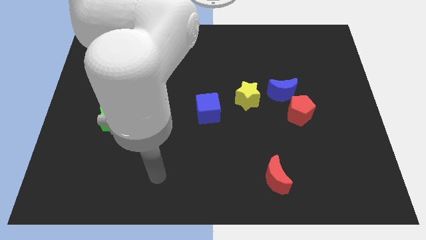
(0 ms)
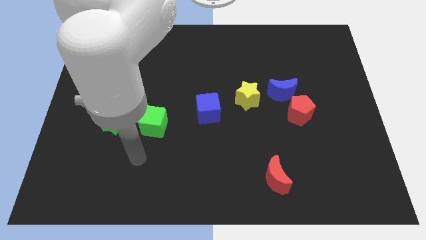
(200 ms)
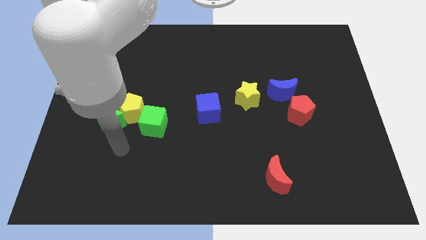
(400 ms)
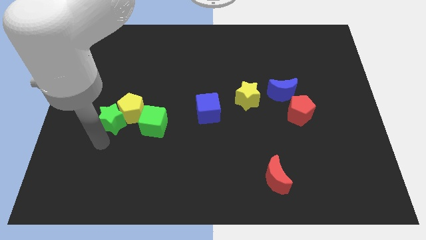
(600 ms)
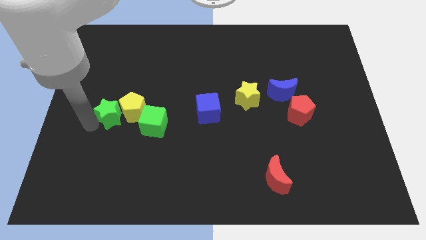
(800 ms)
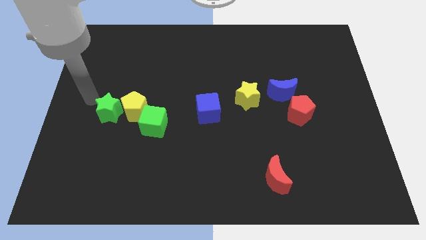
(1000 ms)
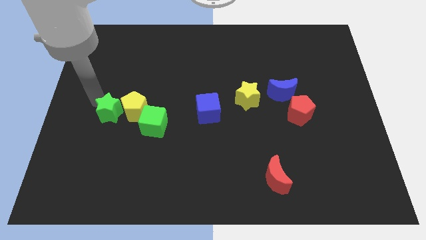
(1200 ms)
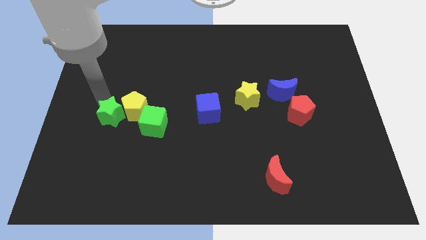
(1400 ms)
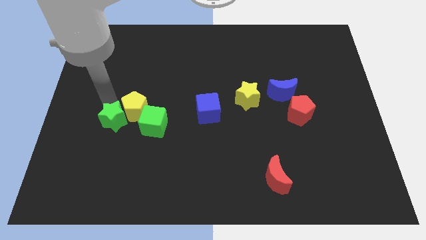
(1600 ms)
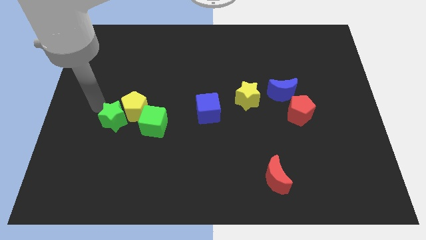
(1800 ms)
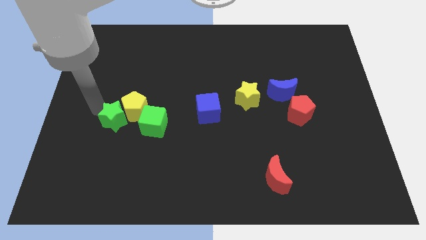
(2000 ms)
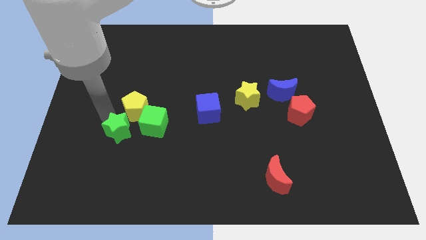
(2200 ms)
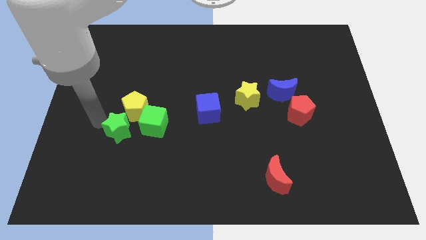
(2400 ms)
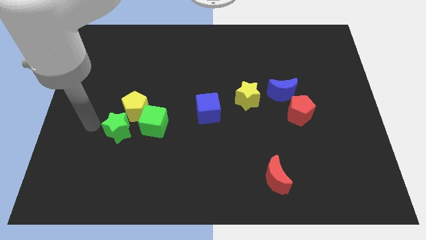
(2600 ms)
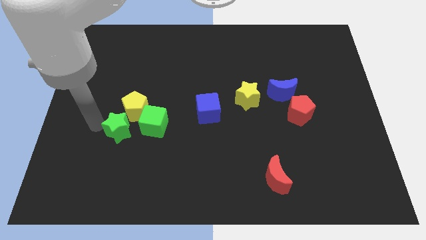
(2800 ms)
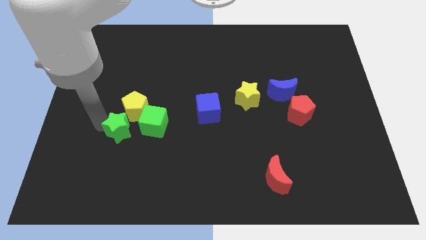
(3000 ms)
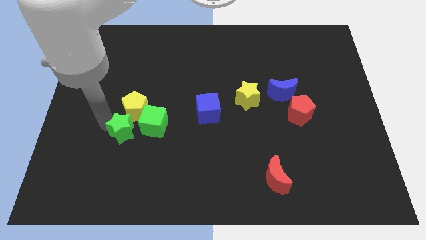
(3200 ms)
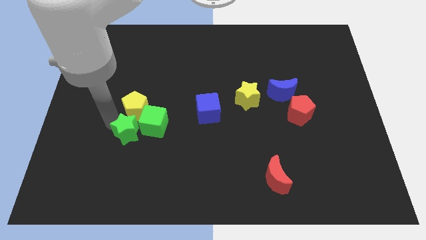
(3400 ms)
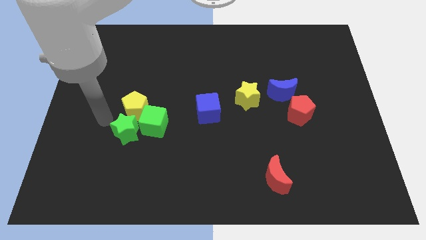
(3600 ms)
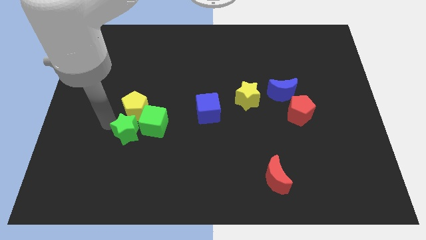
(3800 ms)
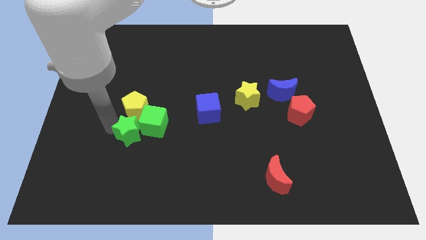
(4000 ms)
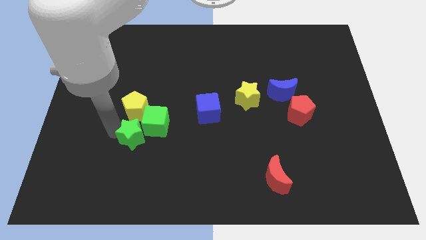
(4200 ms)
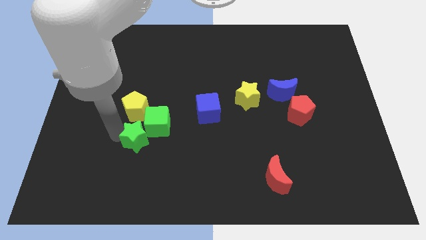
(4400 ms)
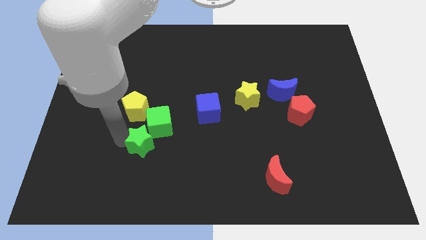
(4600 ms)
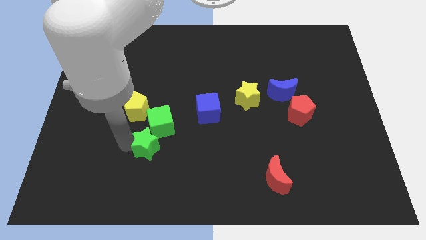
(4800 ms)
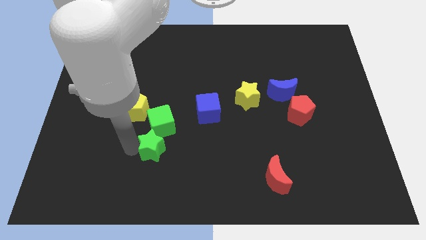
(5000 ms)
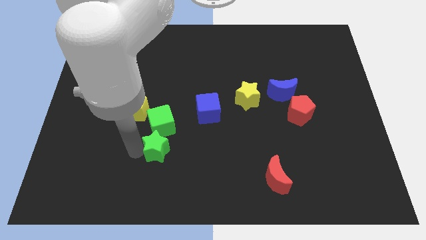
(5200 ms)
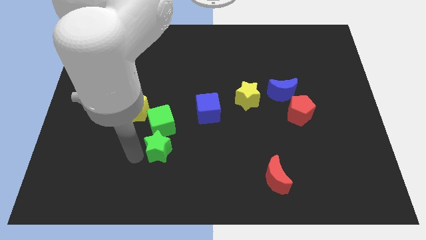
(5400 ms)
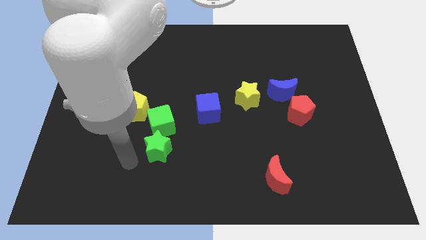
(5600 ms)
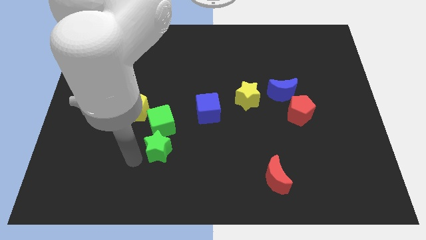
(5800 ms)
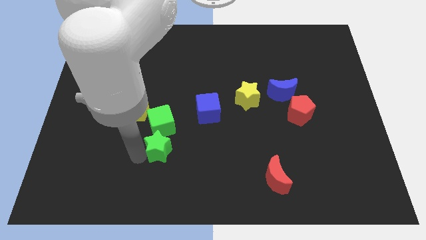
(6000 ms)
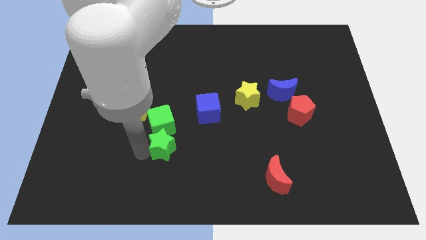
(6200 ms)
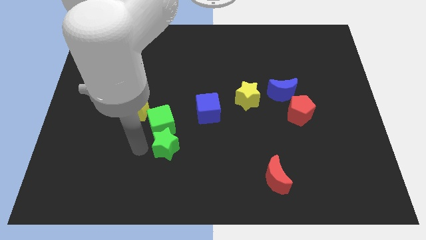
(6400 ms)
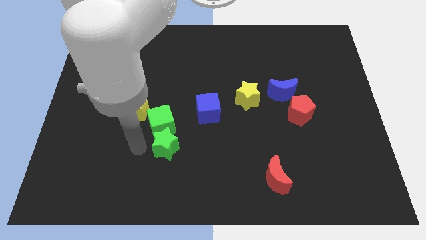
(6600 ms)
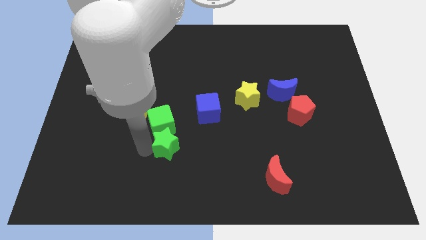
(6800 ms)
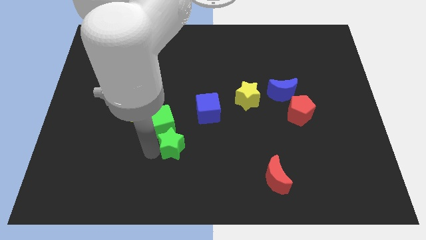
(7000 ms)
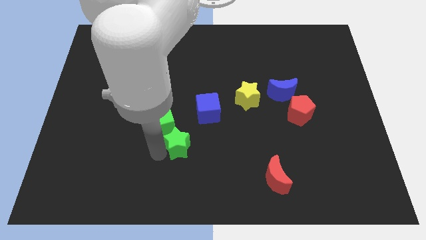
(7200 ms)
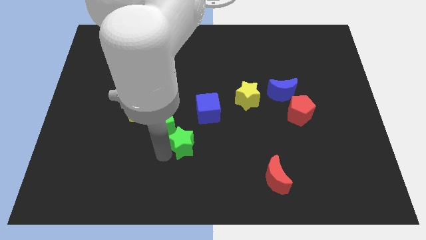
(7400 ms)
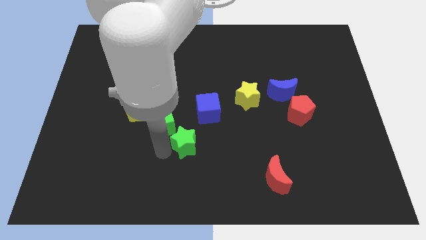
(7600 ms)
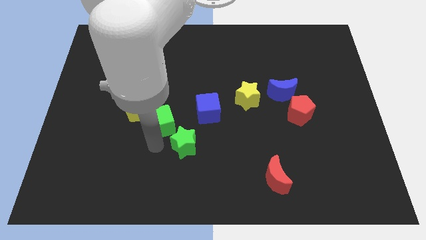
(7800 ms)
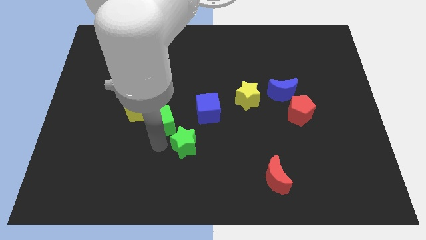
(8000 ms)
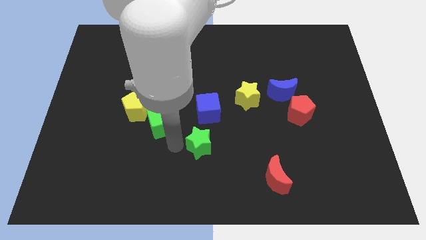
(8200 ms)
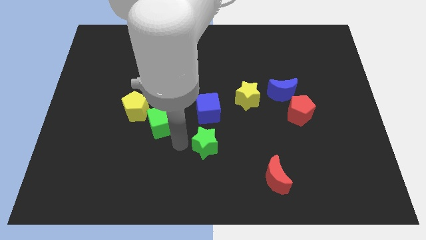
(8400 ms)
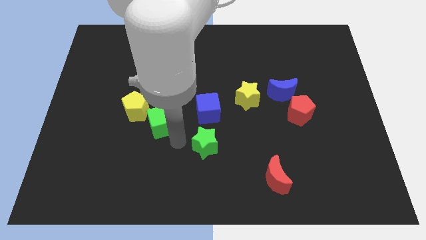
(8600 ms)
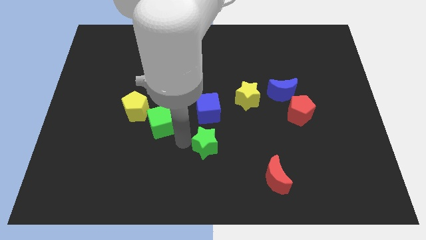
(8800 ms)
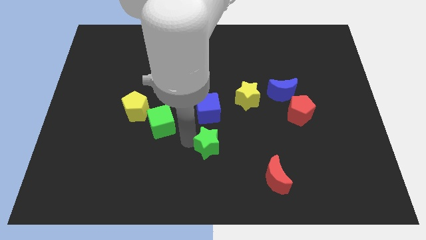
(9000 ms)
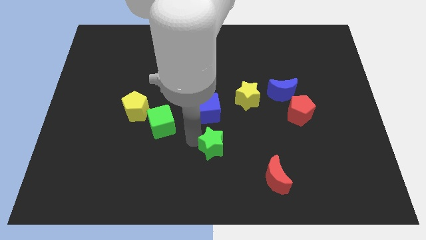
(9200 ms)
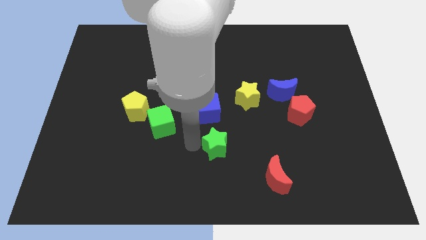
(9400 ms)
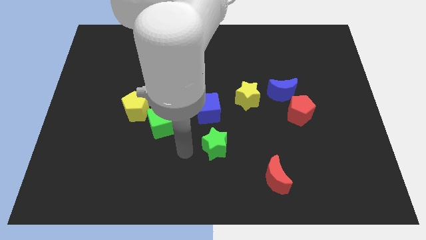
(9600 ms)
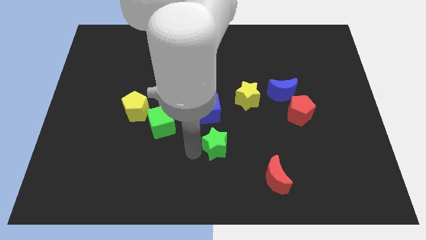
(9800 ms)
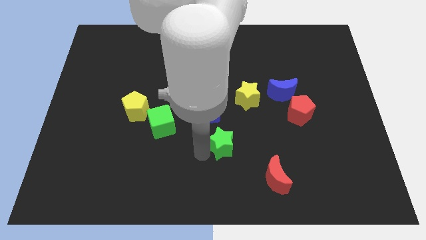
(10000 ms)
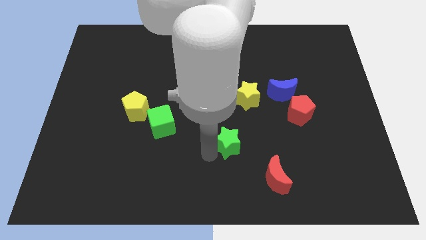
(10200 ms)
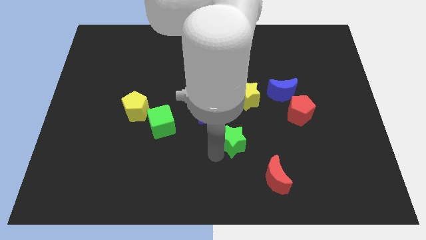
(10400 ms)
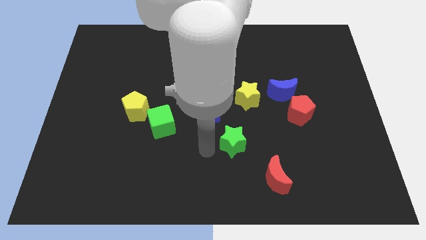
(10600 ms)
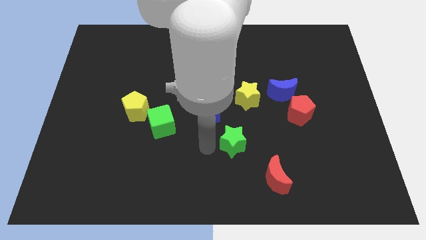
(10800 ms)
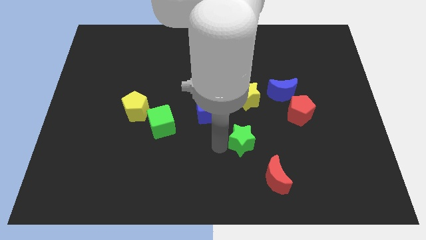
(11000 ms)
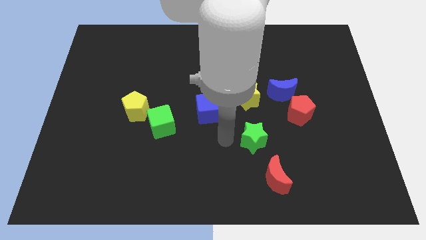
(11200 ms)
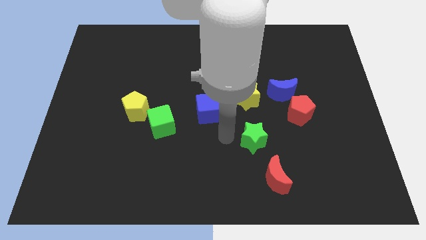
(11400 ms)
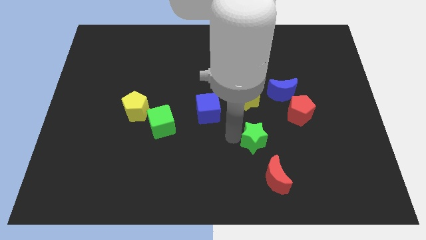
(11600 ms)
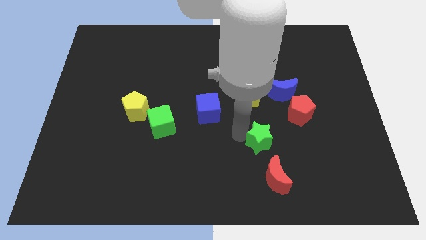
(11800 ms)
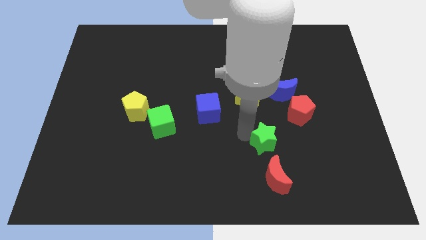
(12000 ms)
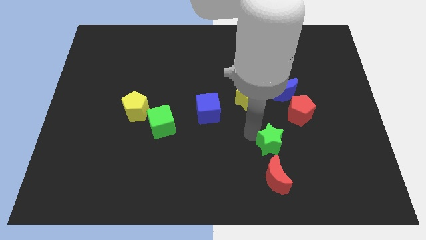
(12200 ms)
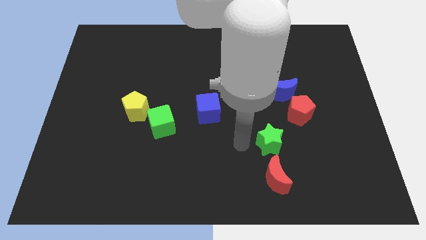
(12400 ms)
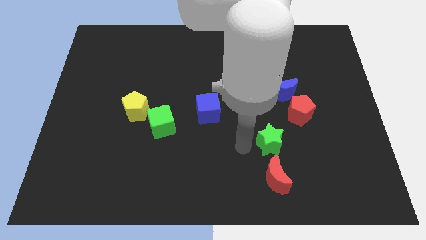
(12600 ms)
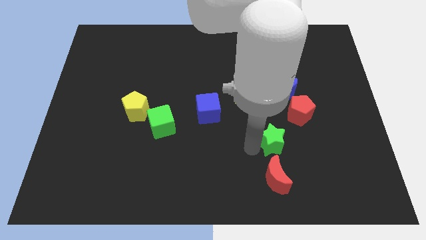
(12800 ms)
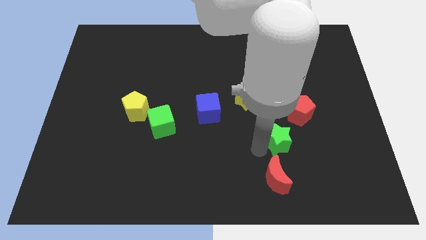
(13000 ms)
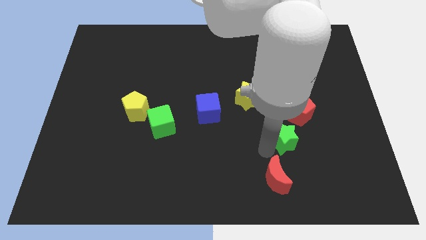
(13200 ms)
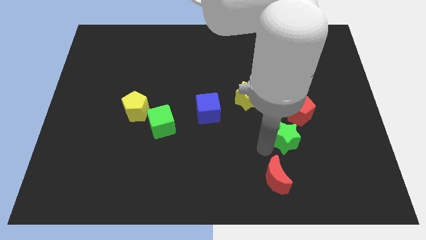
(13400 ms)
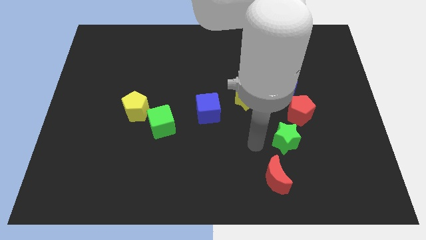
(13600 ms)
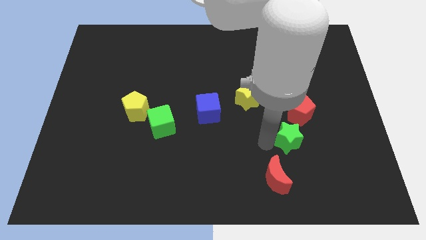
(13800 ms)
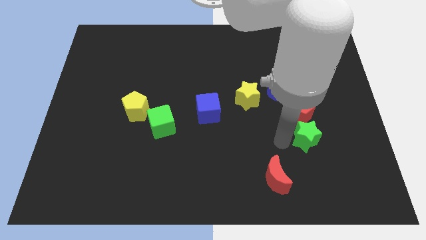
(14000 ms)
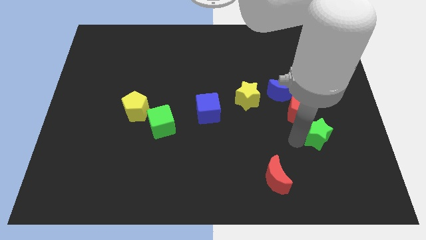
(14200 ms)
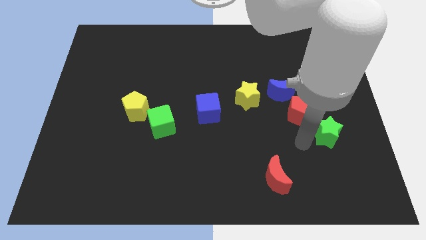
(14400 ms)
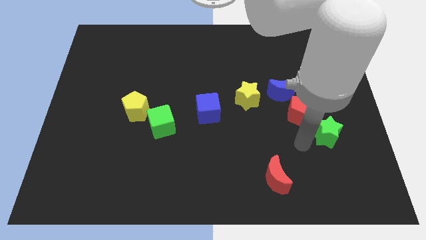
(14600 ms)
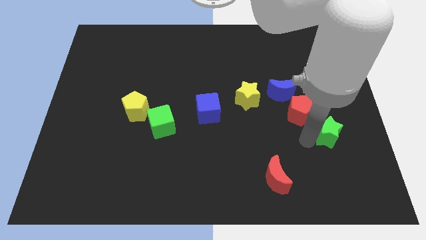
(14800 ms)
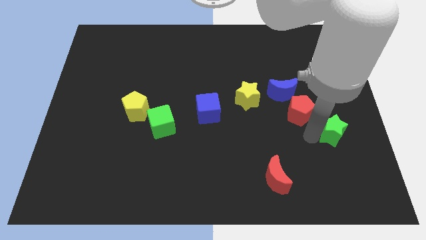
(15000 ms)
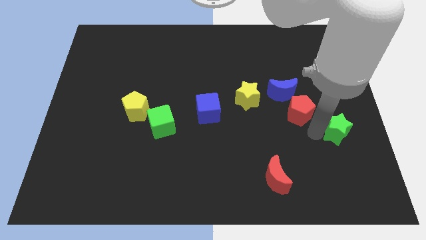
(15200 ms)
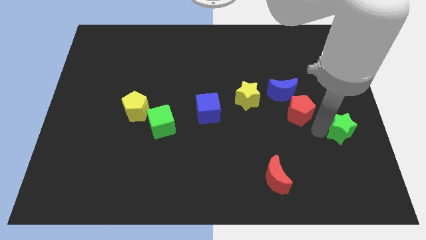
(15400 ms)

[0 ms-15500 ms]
put the green star to the right side of the board
